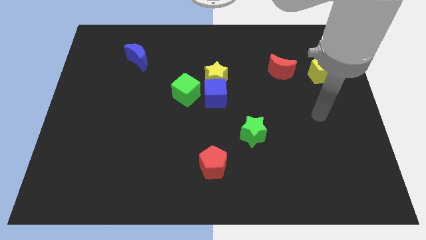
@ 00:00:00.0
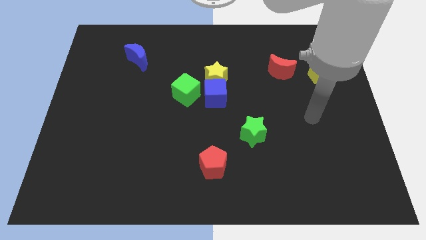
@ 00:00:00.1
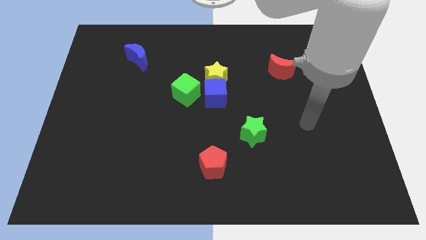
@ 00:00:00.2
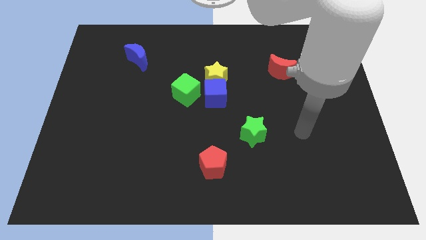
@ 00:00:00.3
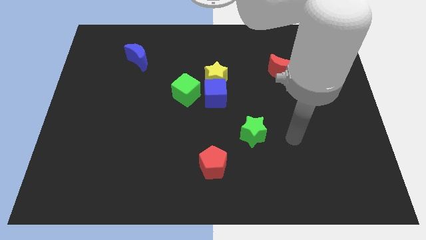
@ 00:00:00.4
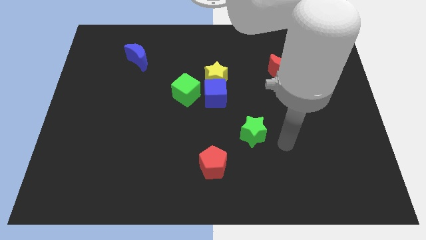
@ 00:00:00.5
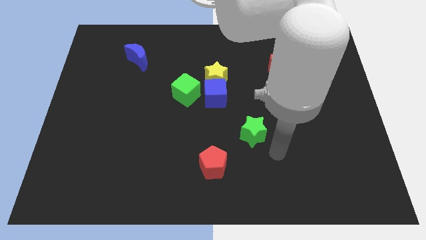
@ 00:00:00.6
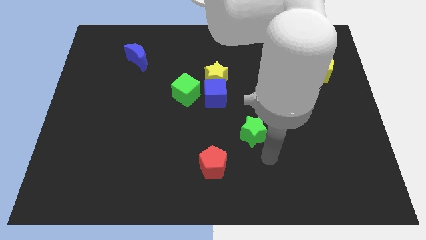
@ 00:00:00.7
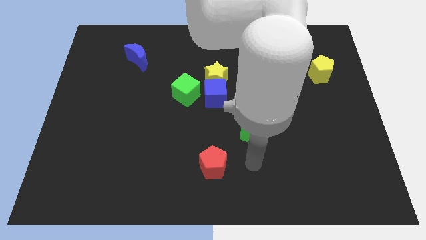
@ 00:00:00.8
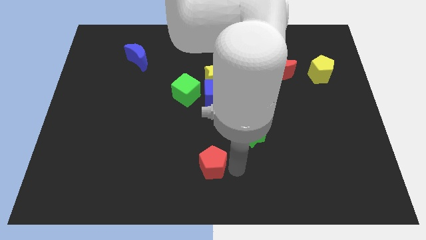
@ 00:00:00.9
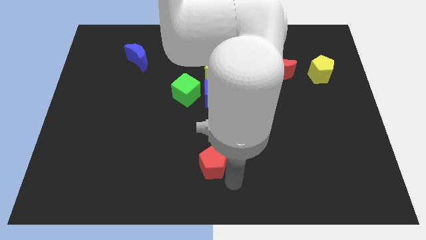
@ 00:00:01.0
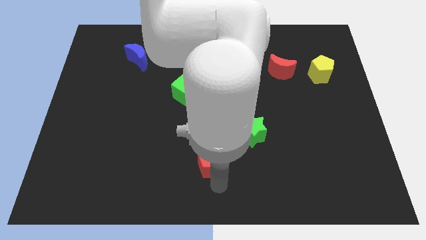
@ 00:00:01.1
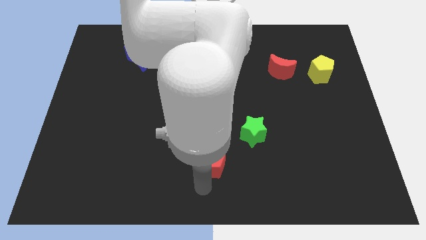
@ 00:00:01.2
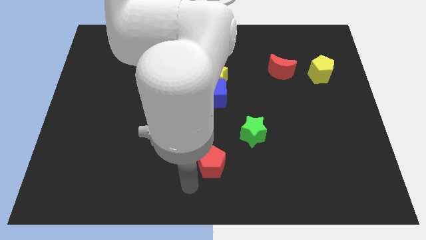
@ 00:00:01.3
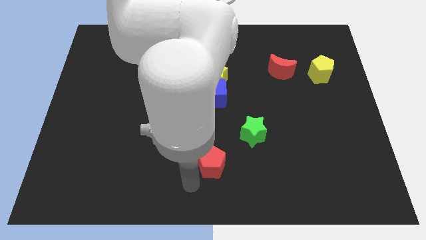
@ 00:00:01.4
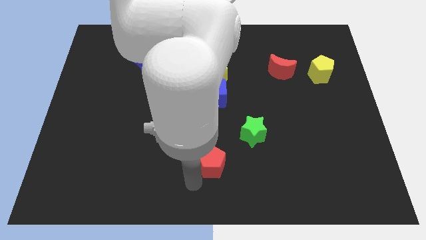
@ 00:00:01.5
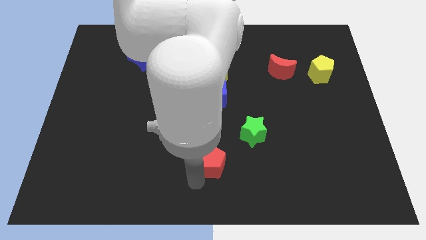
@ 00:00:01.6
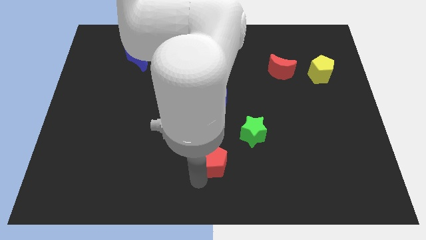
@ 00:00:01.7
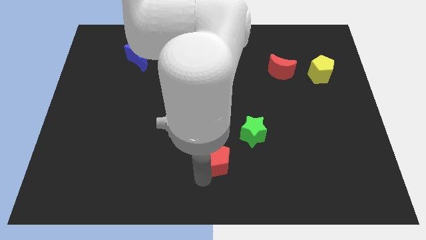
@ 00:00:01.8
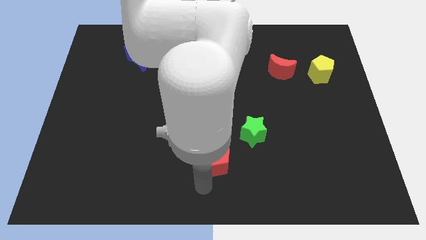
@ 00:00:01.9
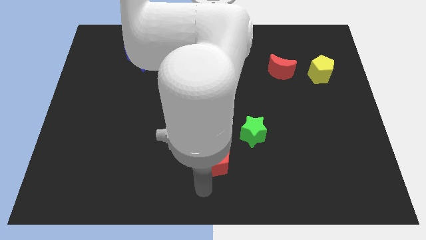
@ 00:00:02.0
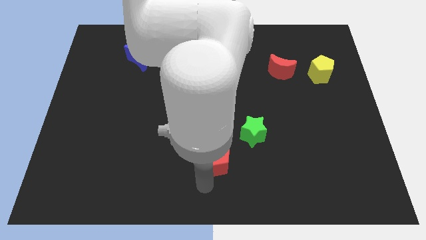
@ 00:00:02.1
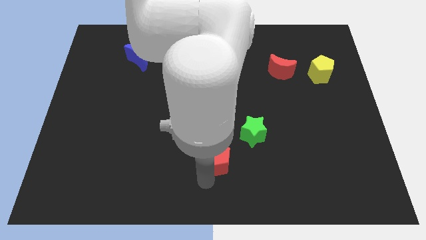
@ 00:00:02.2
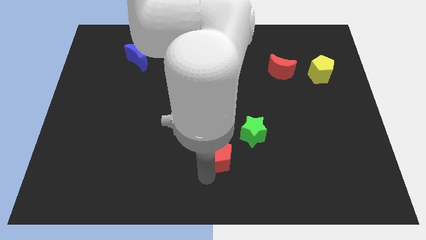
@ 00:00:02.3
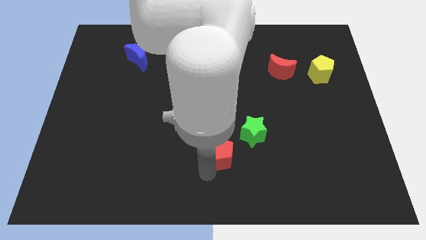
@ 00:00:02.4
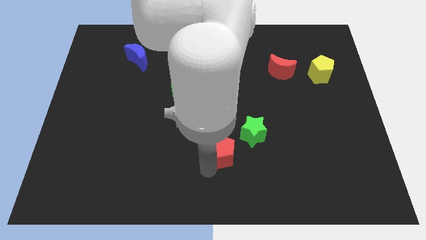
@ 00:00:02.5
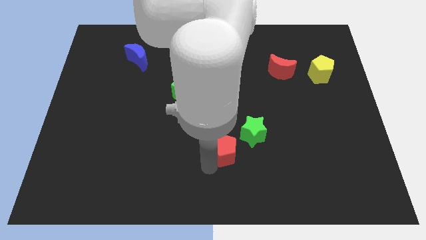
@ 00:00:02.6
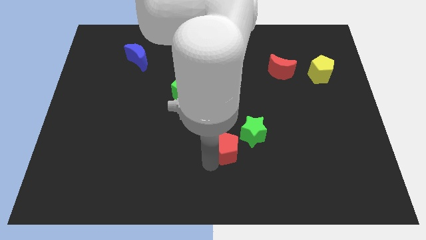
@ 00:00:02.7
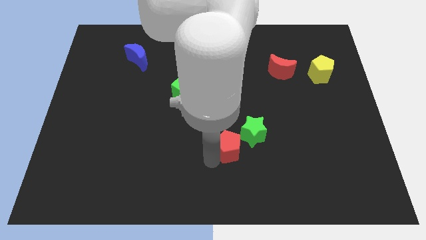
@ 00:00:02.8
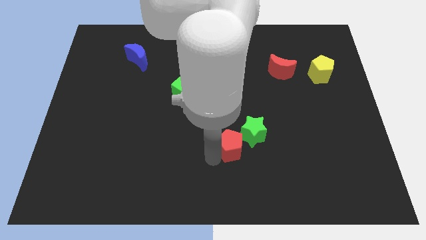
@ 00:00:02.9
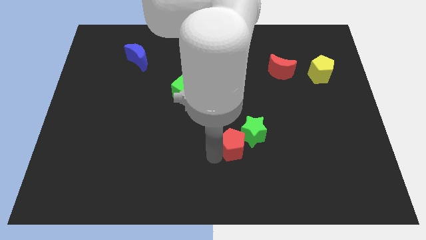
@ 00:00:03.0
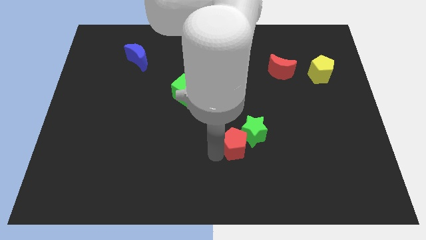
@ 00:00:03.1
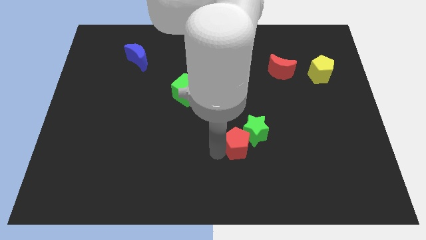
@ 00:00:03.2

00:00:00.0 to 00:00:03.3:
slightly slide the red pentagon upwards and then right

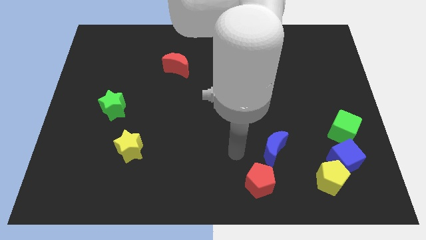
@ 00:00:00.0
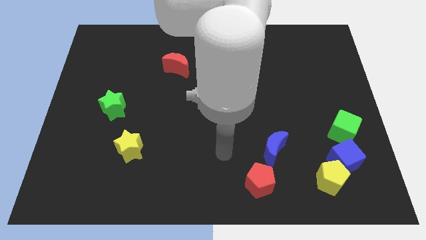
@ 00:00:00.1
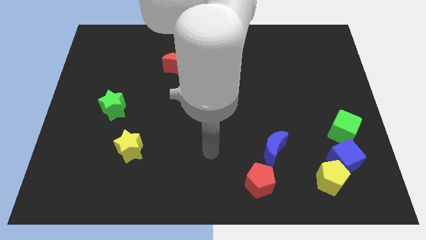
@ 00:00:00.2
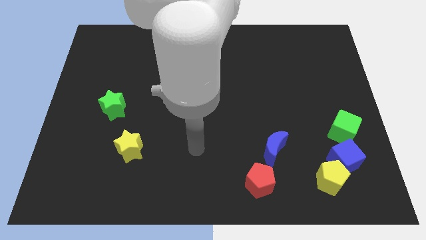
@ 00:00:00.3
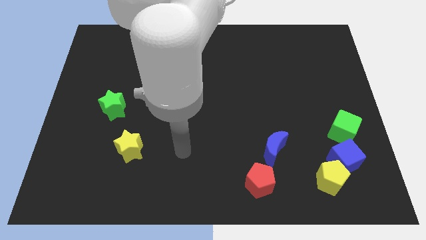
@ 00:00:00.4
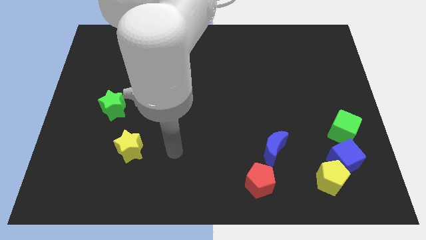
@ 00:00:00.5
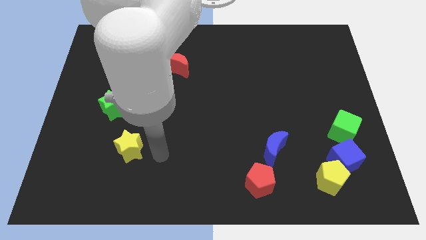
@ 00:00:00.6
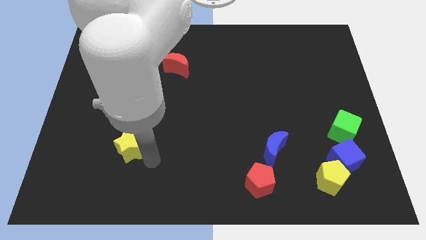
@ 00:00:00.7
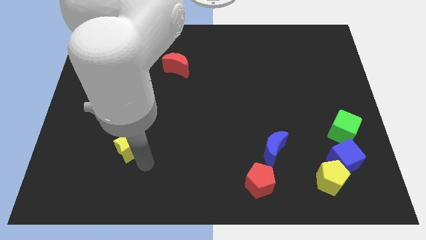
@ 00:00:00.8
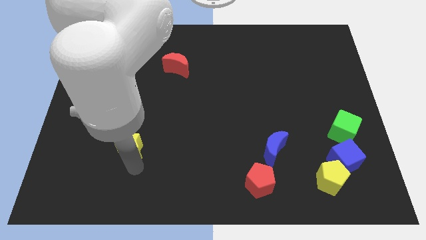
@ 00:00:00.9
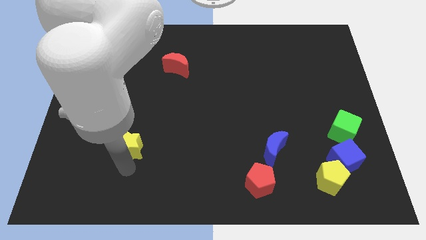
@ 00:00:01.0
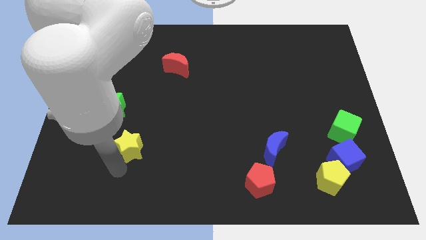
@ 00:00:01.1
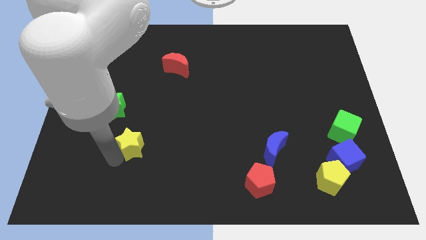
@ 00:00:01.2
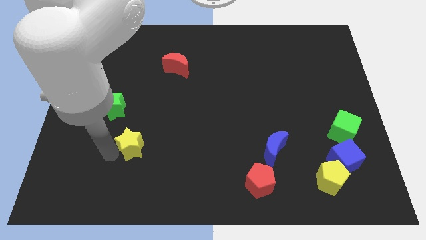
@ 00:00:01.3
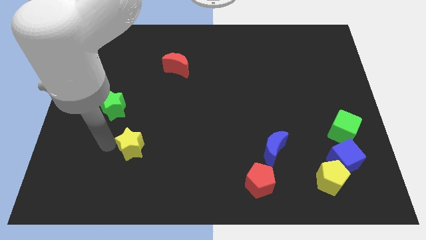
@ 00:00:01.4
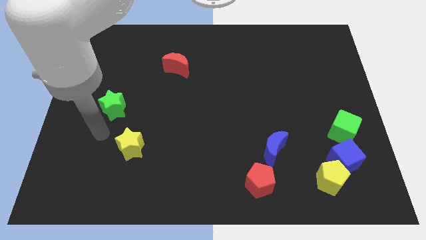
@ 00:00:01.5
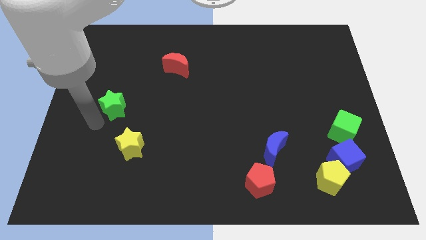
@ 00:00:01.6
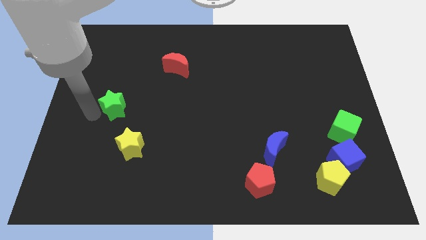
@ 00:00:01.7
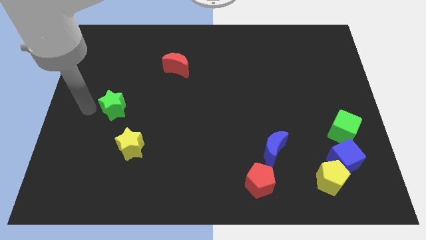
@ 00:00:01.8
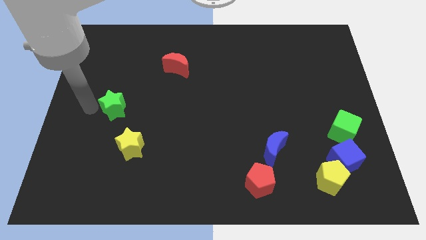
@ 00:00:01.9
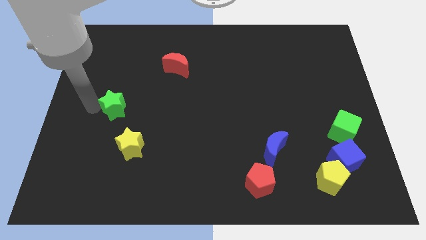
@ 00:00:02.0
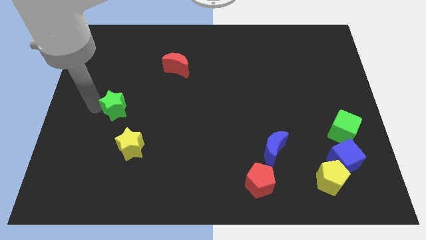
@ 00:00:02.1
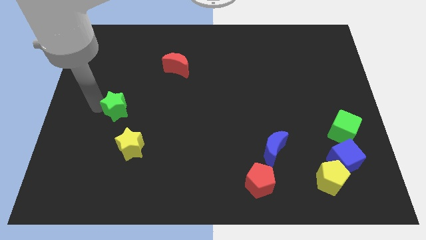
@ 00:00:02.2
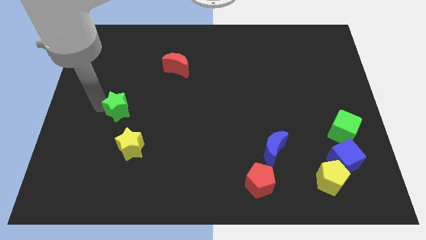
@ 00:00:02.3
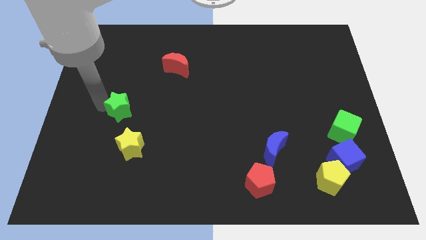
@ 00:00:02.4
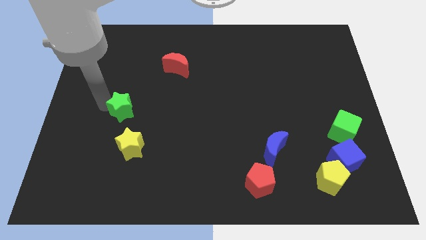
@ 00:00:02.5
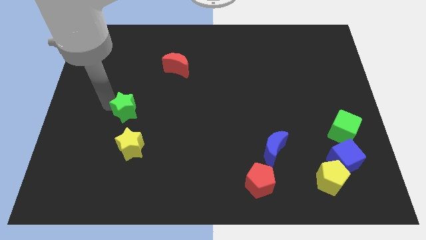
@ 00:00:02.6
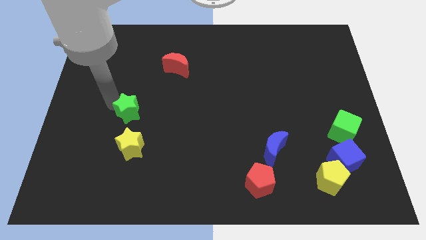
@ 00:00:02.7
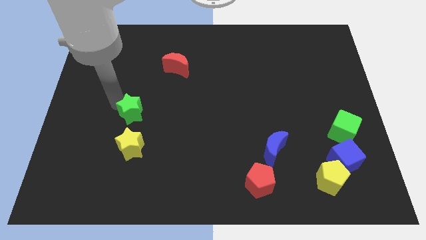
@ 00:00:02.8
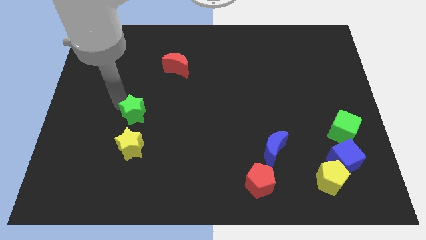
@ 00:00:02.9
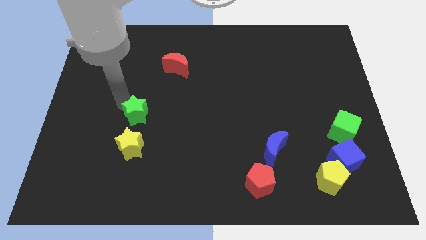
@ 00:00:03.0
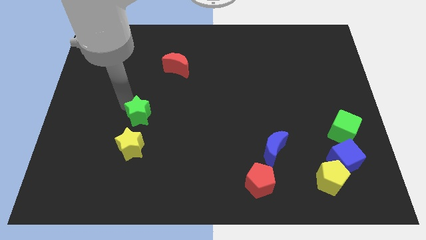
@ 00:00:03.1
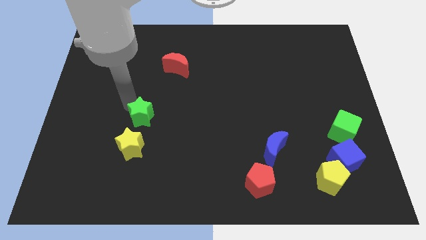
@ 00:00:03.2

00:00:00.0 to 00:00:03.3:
slightly move the green star right

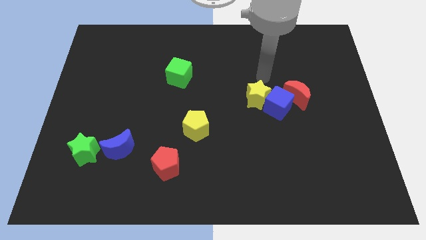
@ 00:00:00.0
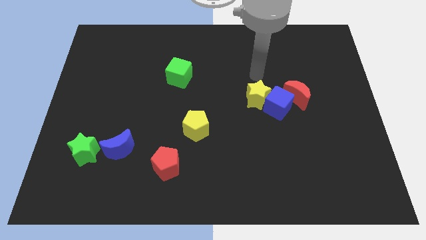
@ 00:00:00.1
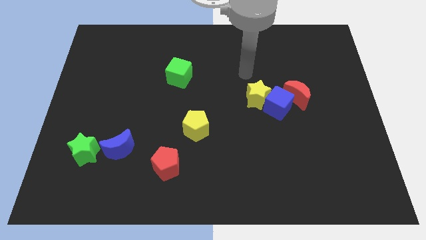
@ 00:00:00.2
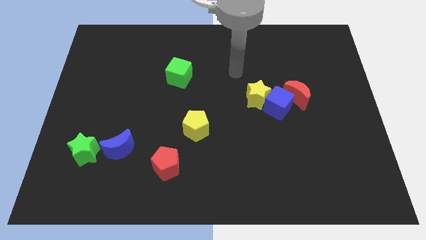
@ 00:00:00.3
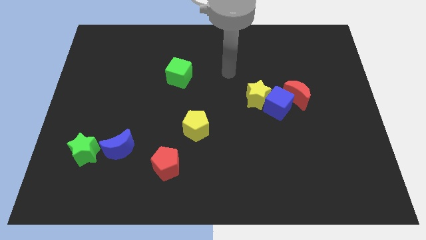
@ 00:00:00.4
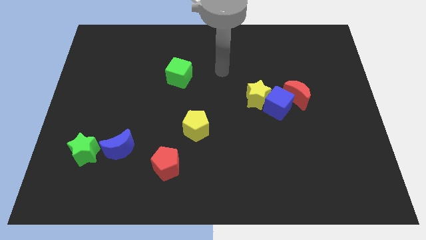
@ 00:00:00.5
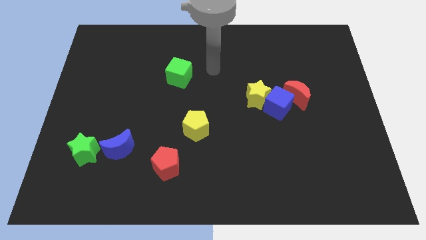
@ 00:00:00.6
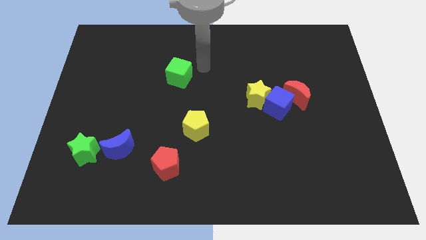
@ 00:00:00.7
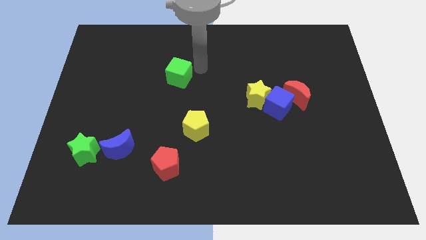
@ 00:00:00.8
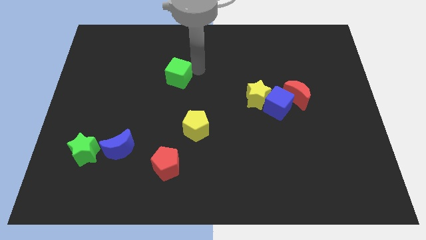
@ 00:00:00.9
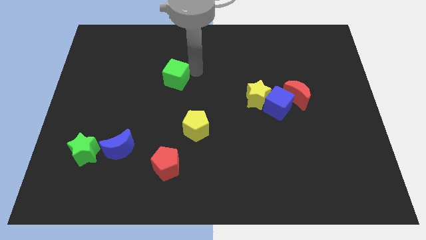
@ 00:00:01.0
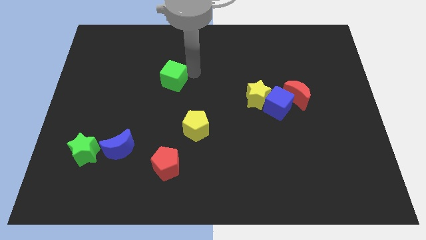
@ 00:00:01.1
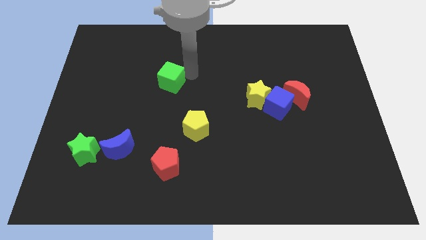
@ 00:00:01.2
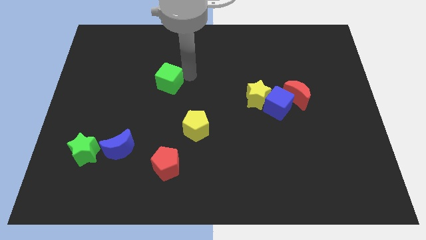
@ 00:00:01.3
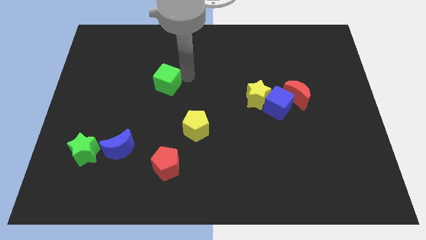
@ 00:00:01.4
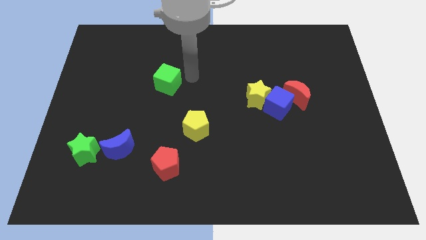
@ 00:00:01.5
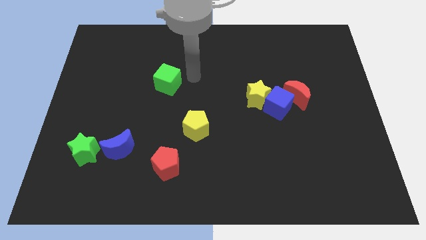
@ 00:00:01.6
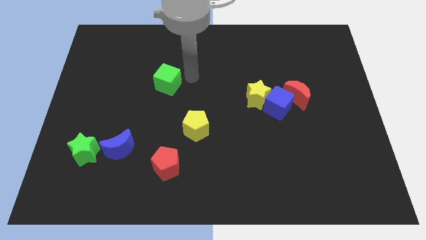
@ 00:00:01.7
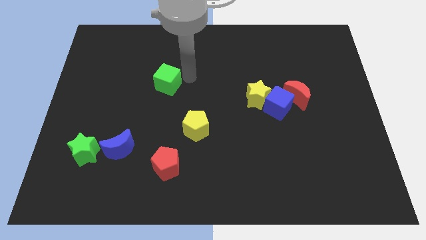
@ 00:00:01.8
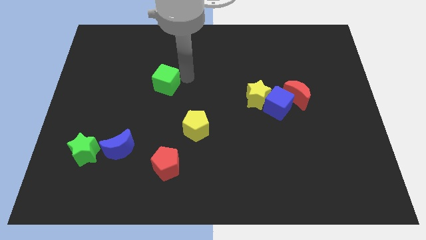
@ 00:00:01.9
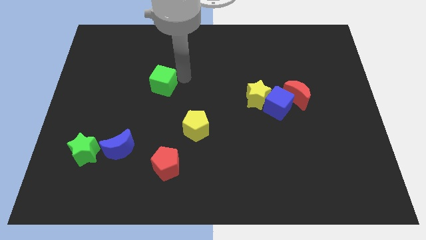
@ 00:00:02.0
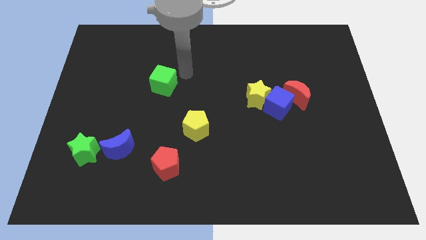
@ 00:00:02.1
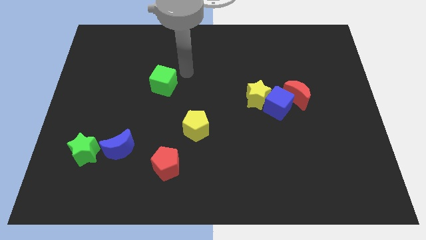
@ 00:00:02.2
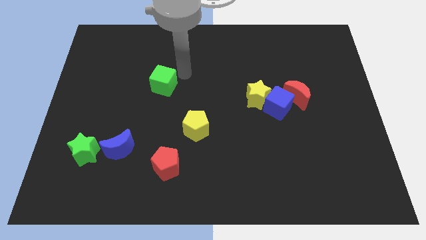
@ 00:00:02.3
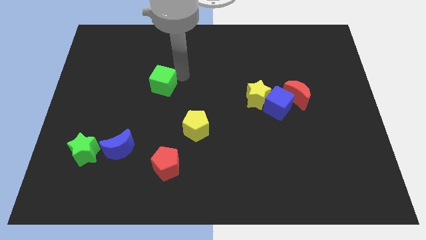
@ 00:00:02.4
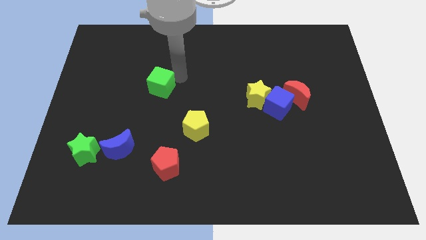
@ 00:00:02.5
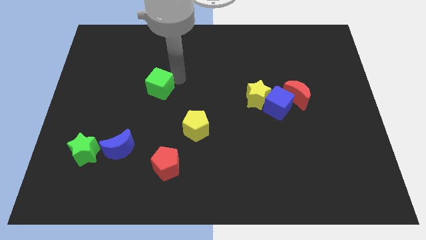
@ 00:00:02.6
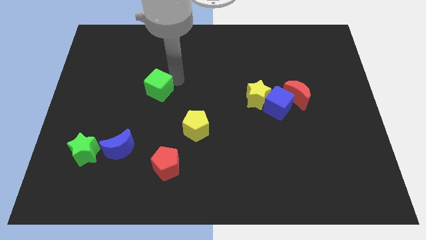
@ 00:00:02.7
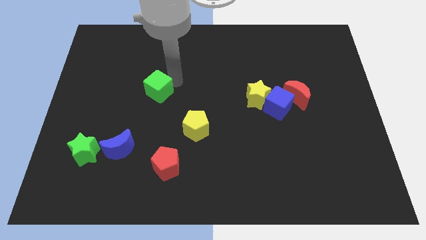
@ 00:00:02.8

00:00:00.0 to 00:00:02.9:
slide the green cube diagonally down and left a little
